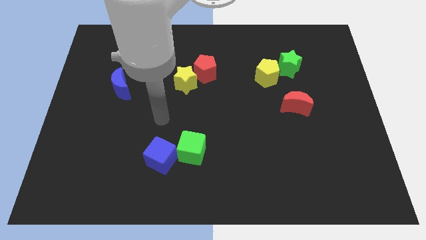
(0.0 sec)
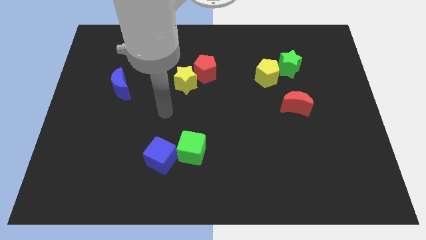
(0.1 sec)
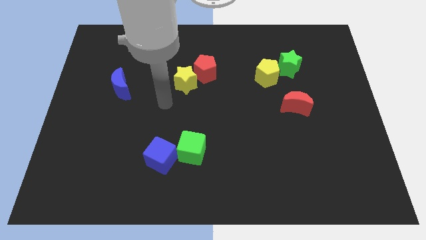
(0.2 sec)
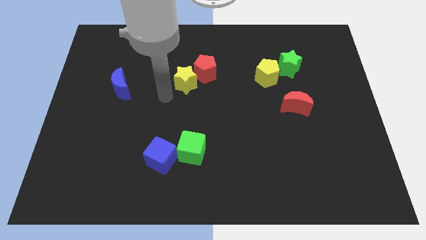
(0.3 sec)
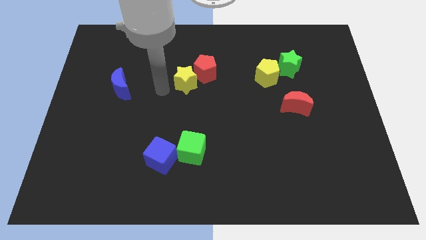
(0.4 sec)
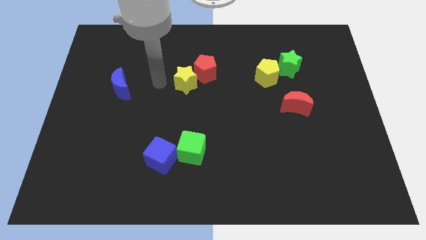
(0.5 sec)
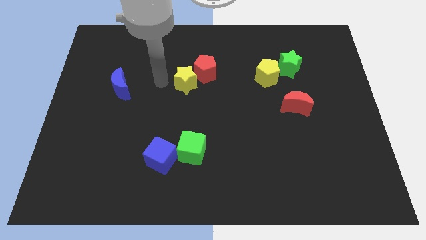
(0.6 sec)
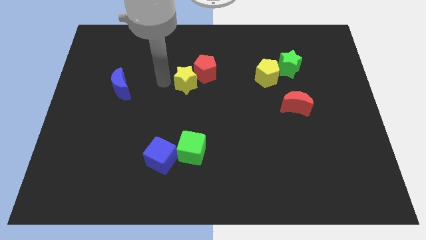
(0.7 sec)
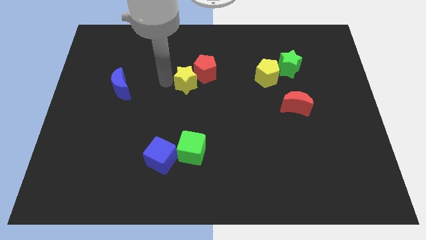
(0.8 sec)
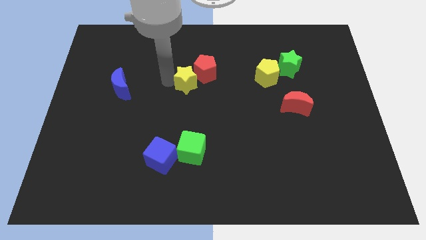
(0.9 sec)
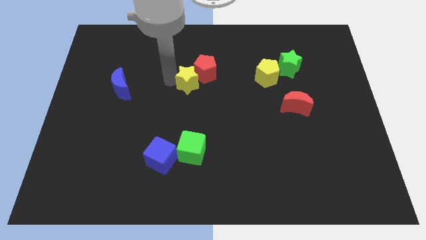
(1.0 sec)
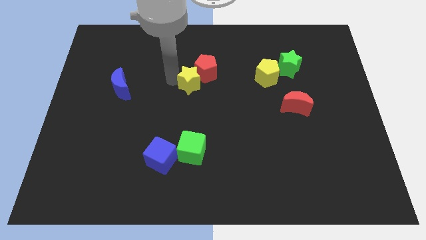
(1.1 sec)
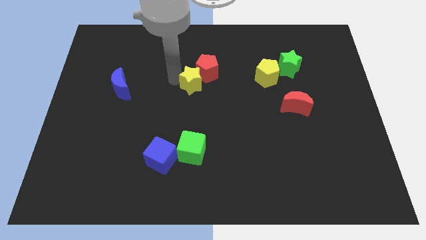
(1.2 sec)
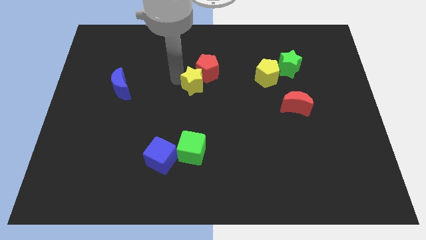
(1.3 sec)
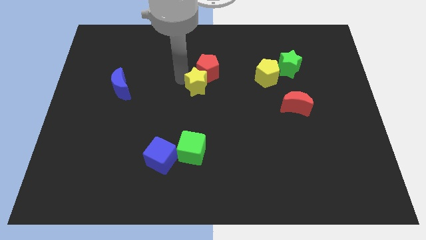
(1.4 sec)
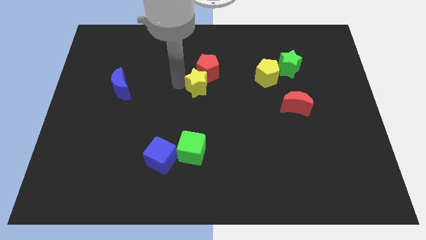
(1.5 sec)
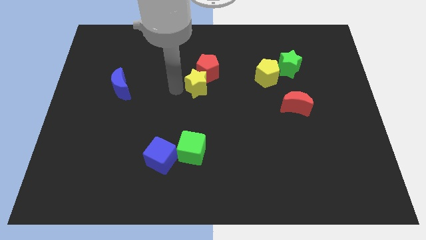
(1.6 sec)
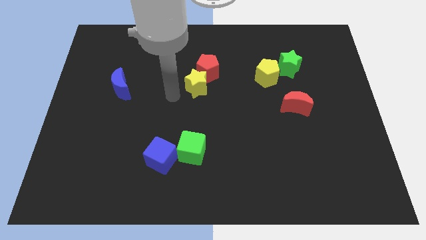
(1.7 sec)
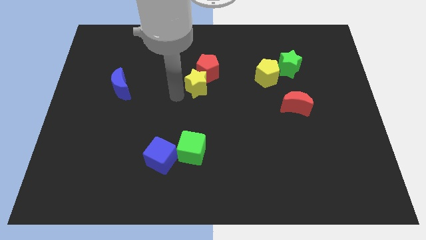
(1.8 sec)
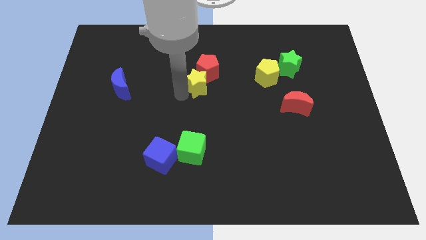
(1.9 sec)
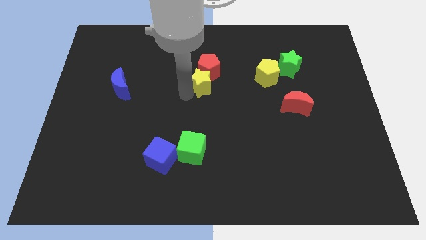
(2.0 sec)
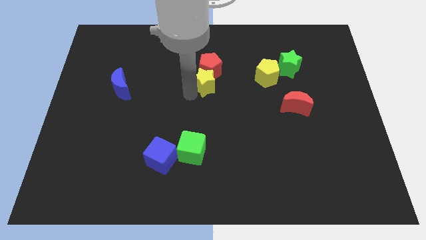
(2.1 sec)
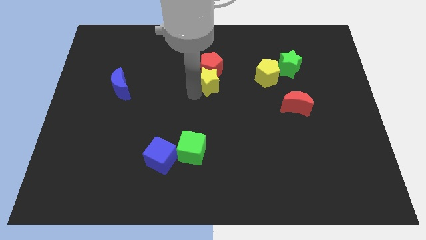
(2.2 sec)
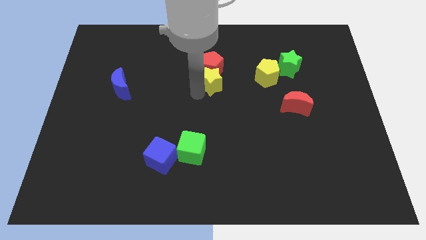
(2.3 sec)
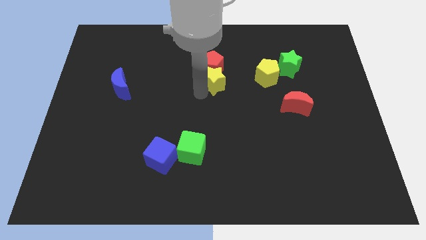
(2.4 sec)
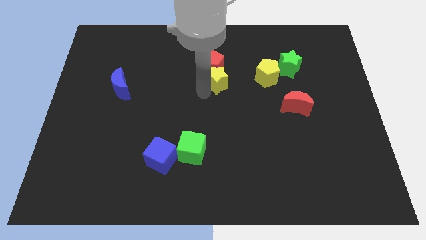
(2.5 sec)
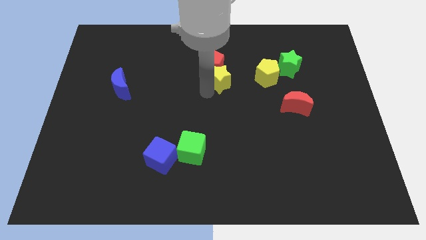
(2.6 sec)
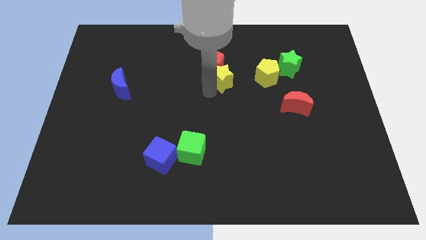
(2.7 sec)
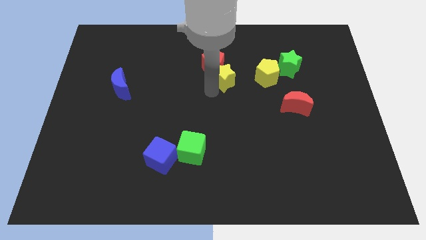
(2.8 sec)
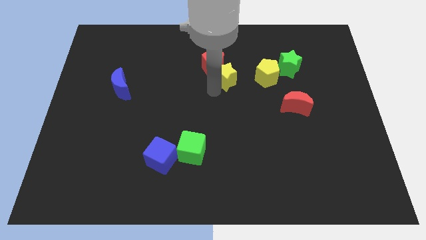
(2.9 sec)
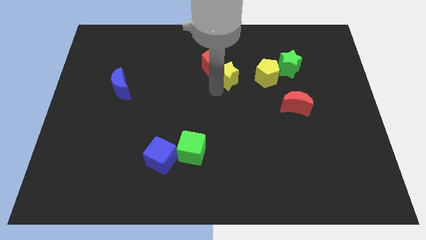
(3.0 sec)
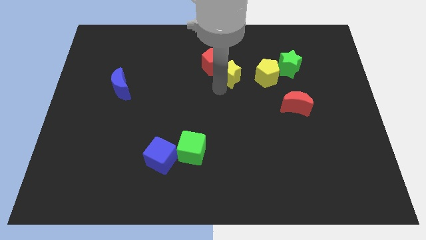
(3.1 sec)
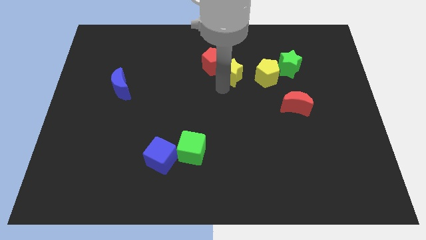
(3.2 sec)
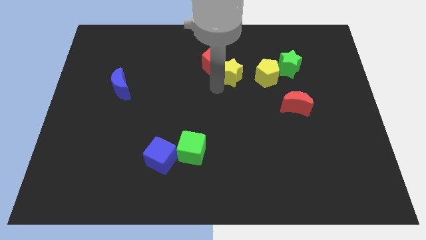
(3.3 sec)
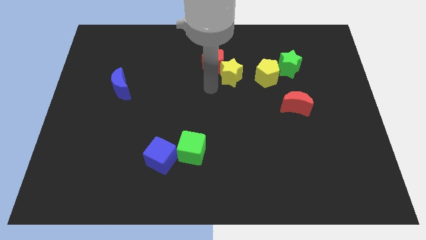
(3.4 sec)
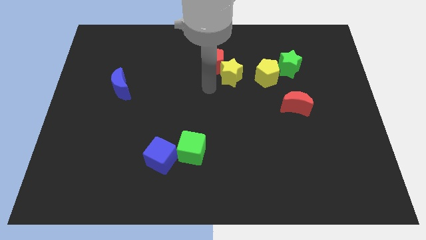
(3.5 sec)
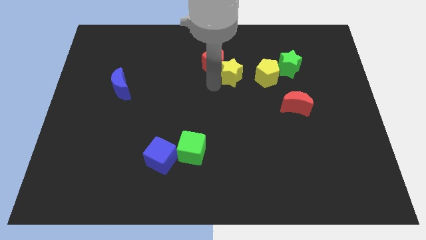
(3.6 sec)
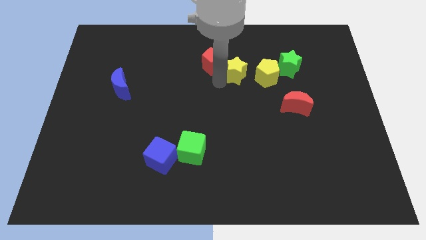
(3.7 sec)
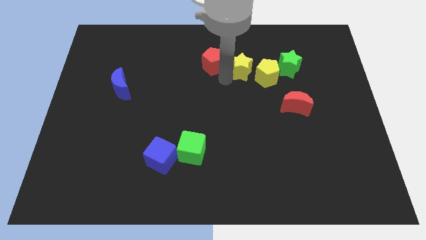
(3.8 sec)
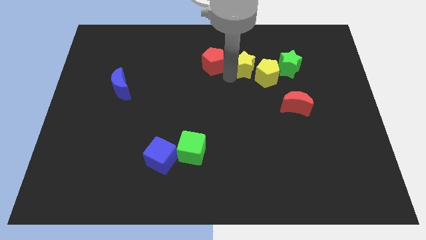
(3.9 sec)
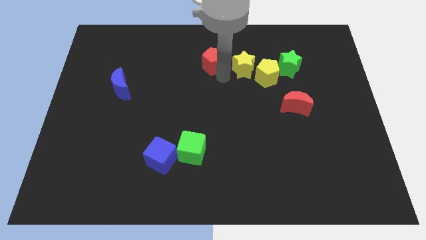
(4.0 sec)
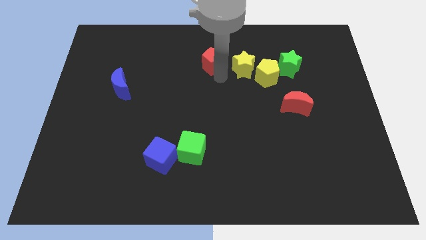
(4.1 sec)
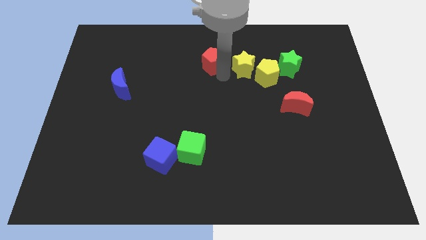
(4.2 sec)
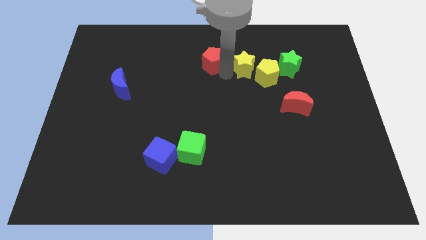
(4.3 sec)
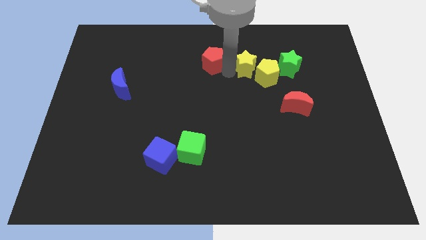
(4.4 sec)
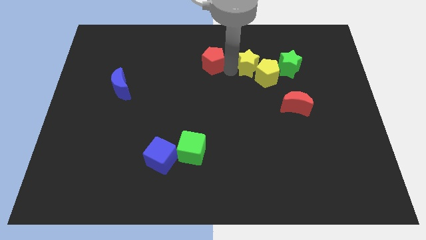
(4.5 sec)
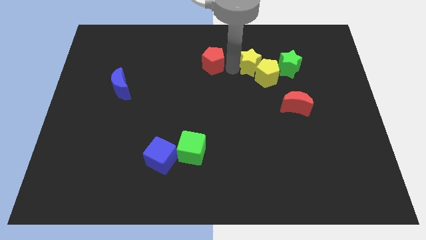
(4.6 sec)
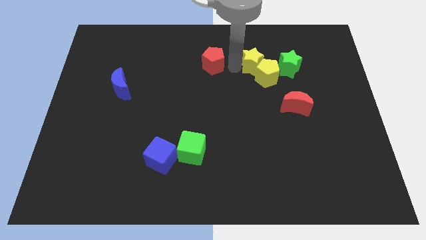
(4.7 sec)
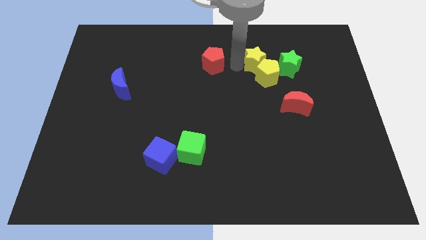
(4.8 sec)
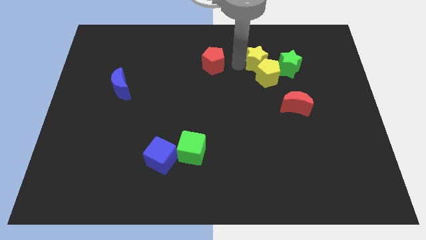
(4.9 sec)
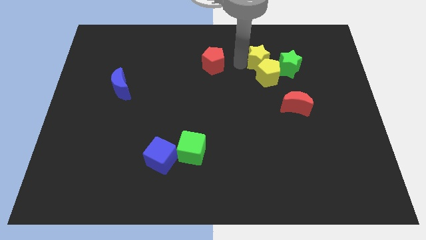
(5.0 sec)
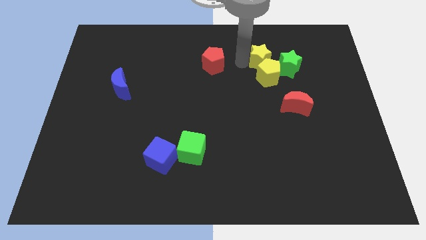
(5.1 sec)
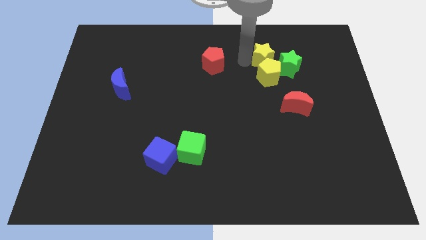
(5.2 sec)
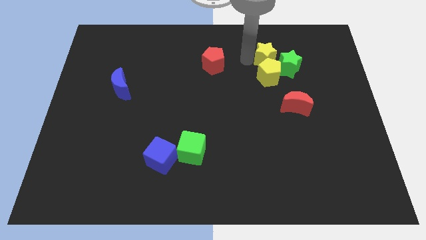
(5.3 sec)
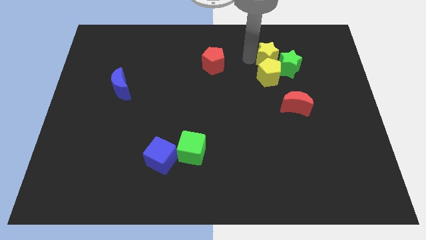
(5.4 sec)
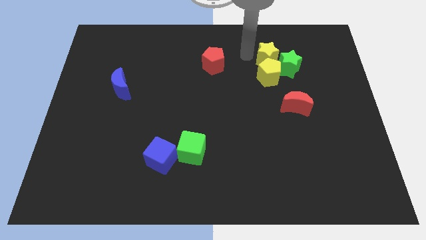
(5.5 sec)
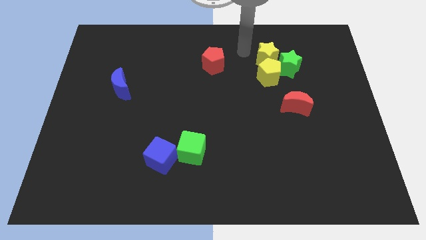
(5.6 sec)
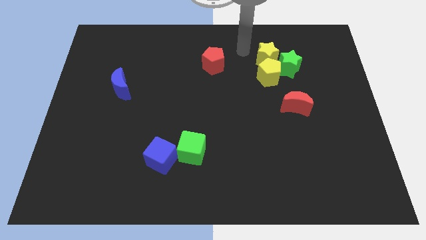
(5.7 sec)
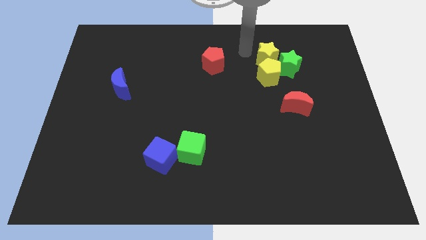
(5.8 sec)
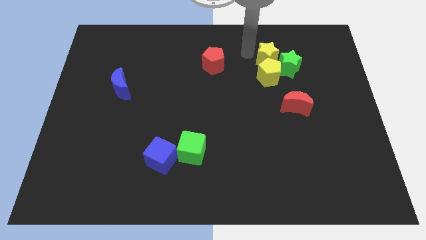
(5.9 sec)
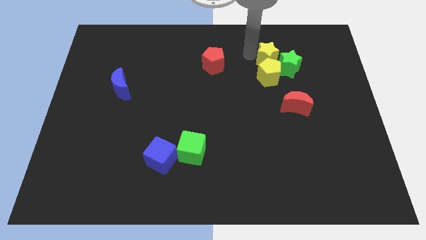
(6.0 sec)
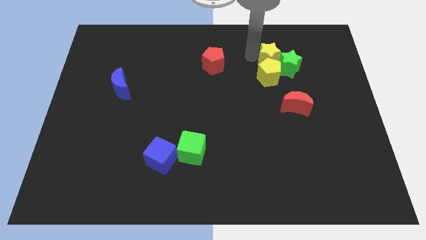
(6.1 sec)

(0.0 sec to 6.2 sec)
slide the yellow star next to the green star
